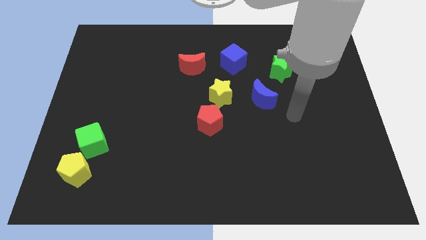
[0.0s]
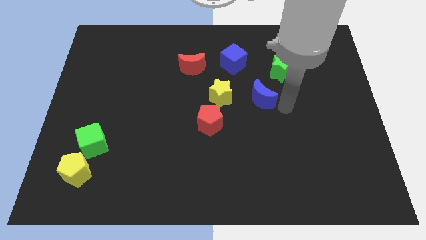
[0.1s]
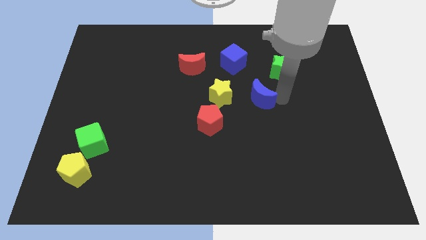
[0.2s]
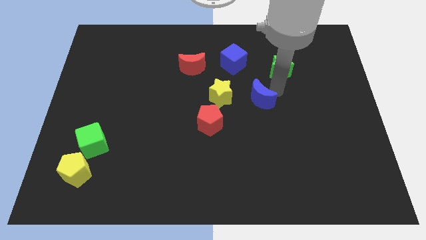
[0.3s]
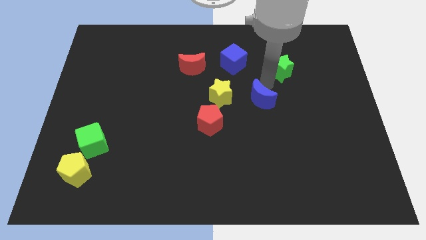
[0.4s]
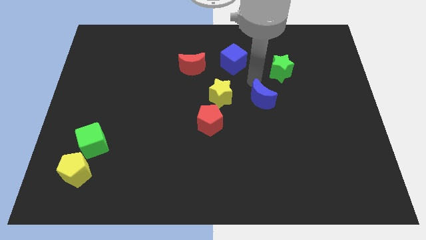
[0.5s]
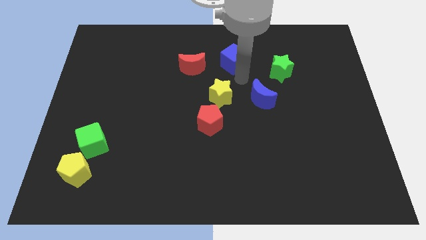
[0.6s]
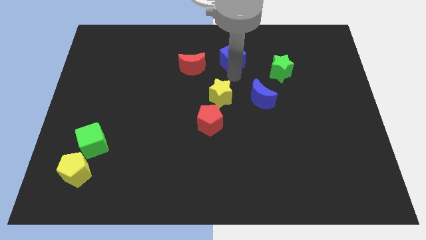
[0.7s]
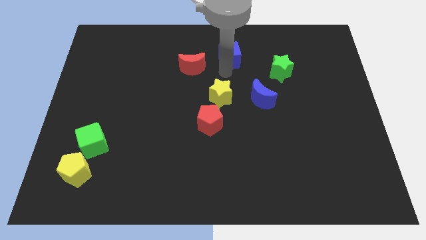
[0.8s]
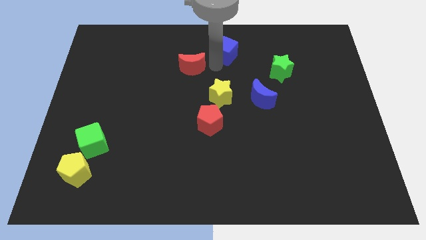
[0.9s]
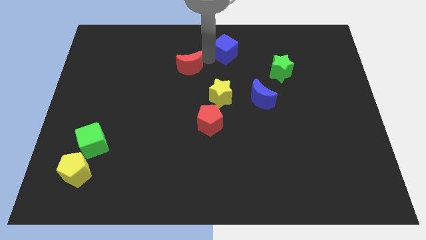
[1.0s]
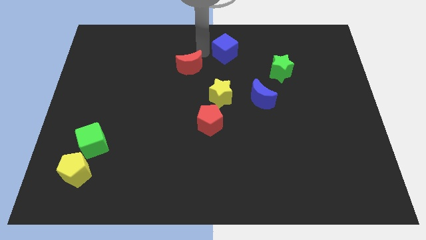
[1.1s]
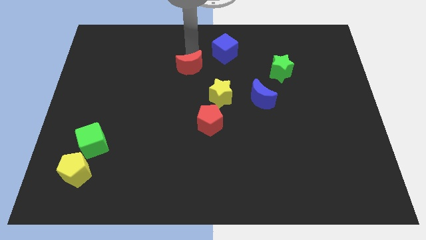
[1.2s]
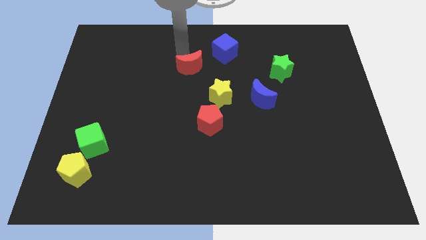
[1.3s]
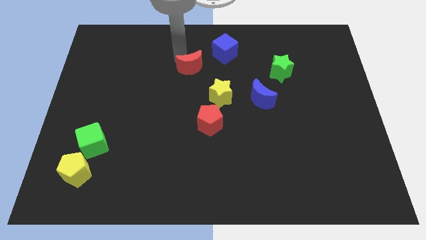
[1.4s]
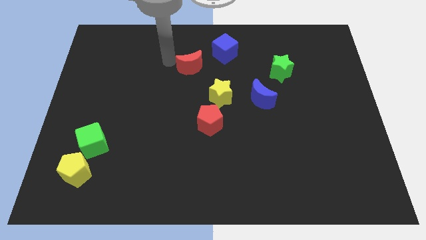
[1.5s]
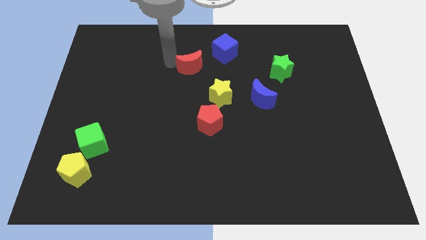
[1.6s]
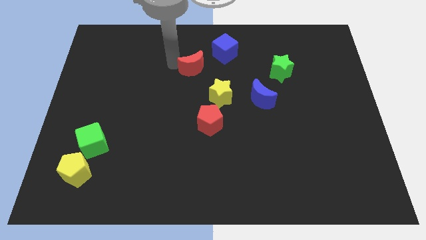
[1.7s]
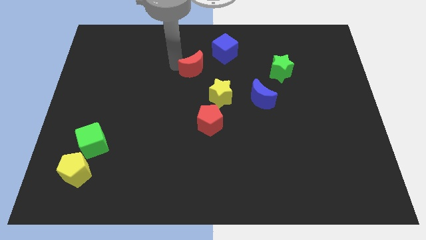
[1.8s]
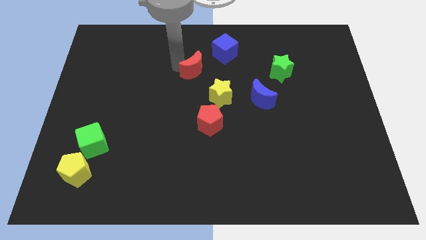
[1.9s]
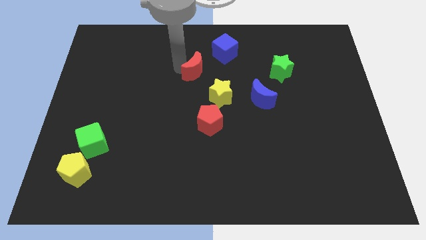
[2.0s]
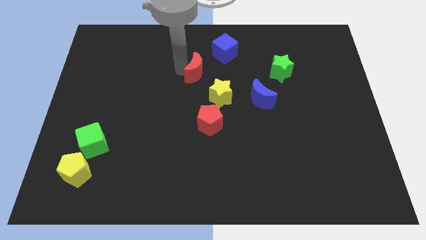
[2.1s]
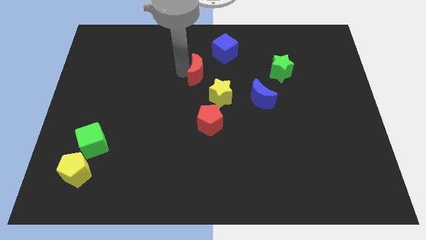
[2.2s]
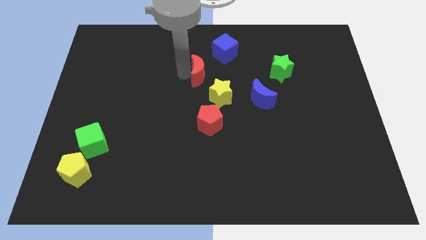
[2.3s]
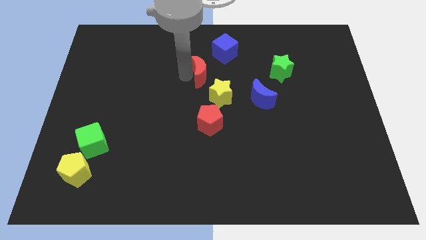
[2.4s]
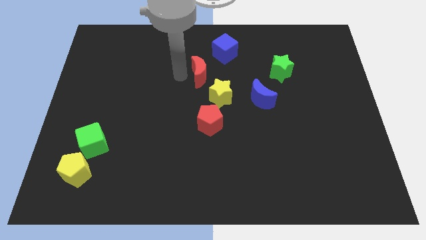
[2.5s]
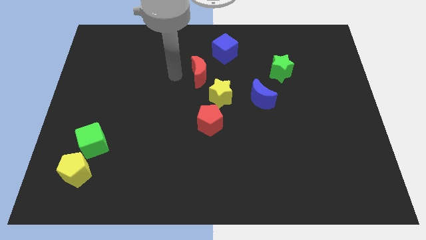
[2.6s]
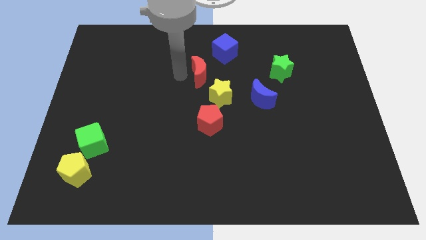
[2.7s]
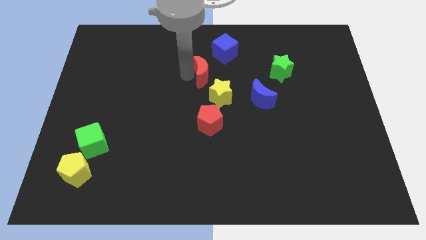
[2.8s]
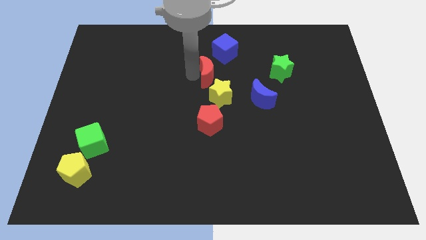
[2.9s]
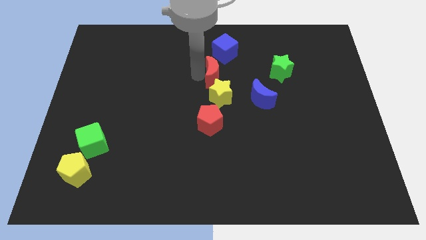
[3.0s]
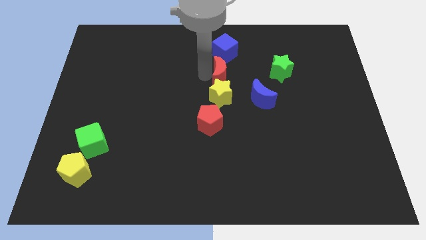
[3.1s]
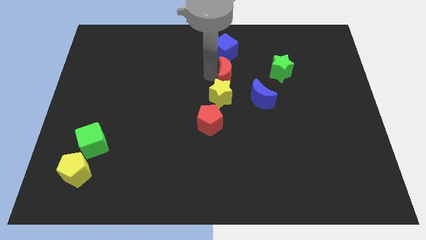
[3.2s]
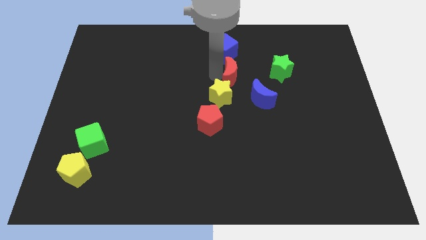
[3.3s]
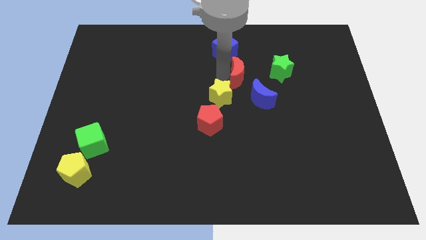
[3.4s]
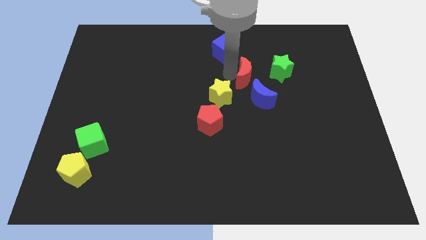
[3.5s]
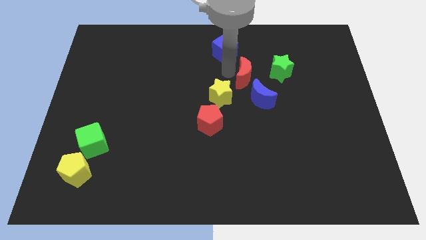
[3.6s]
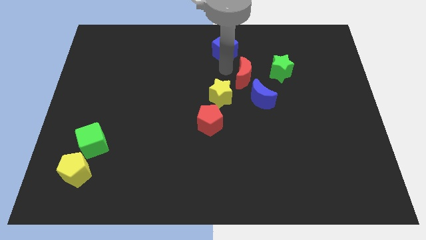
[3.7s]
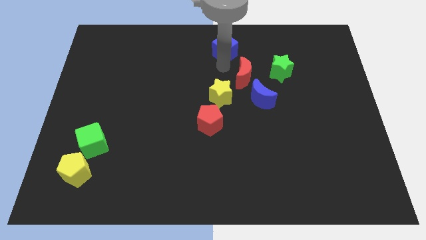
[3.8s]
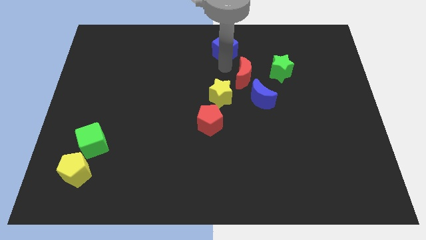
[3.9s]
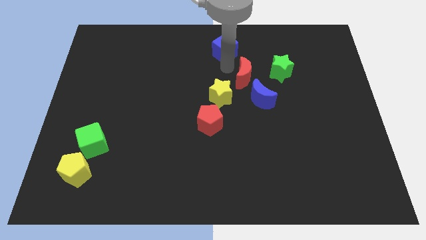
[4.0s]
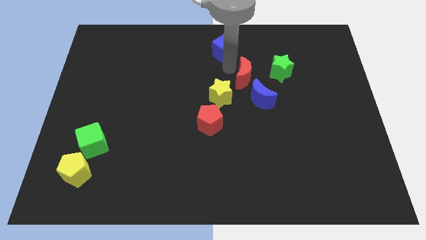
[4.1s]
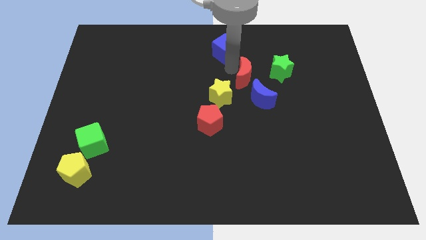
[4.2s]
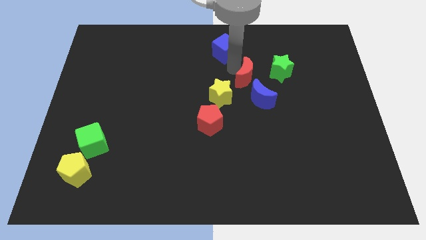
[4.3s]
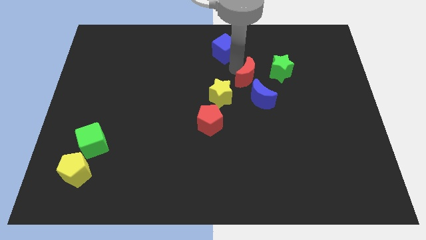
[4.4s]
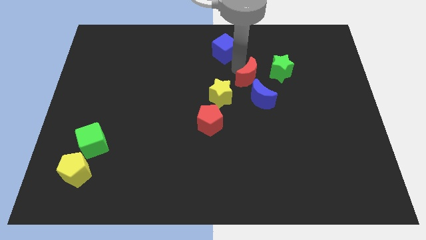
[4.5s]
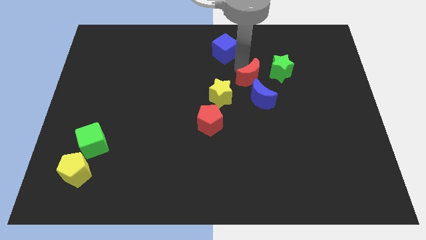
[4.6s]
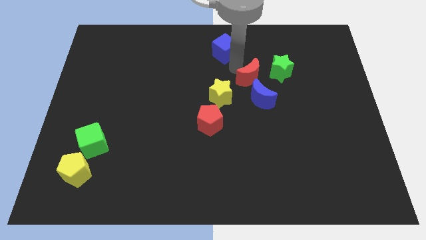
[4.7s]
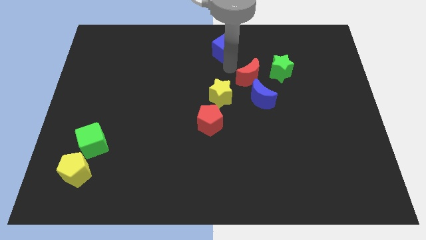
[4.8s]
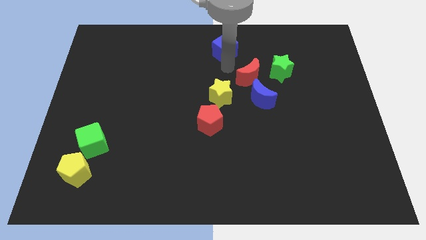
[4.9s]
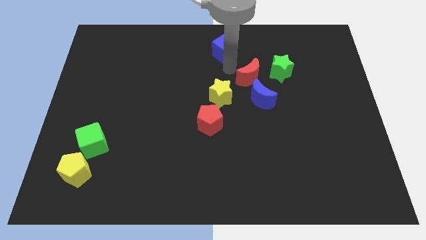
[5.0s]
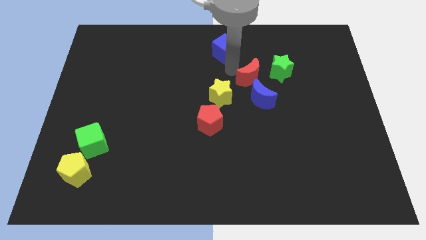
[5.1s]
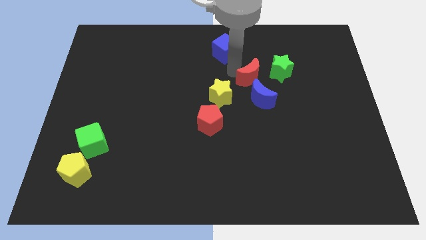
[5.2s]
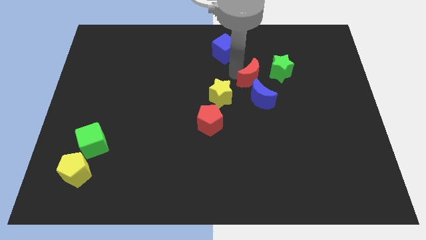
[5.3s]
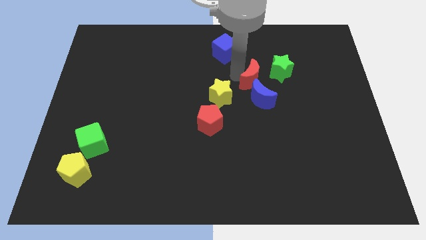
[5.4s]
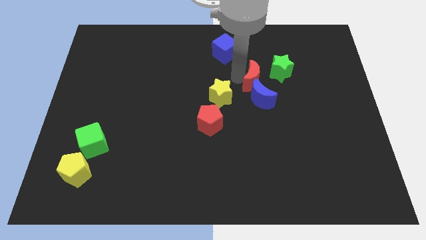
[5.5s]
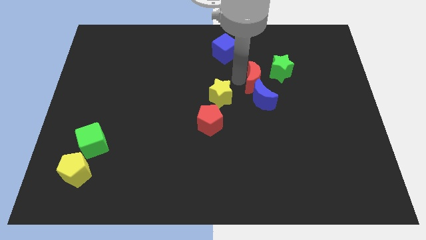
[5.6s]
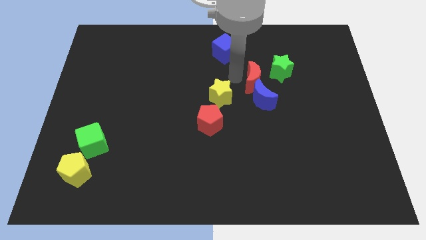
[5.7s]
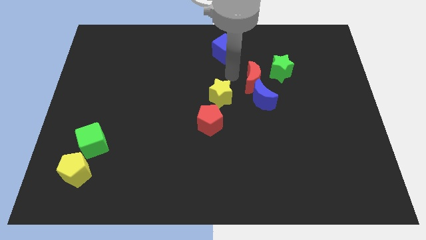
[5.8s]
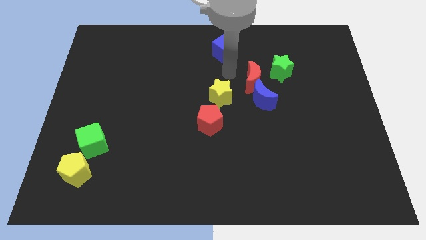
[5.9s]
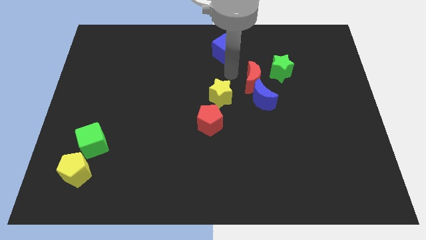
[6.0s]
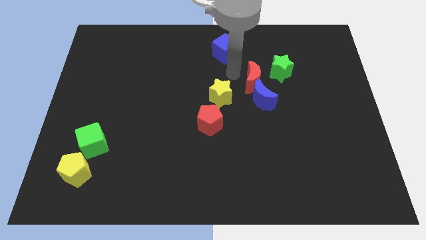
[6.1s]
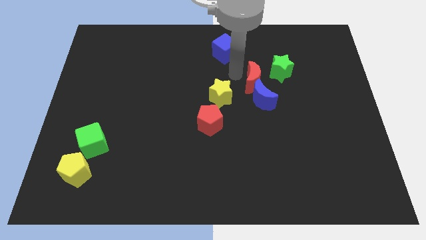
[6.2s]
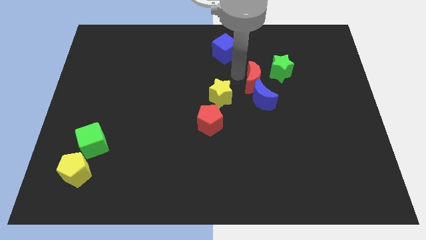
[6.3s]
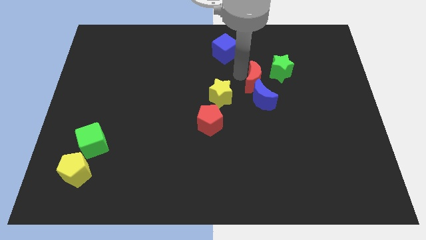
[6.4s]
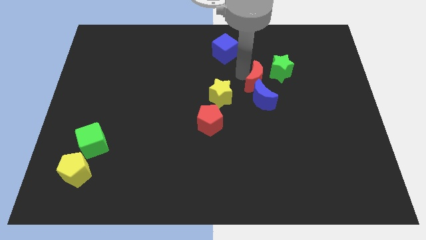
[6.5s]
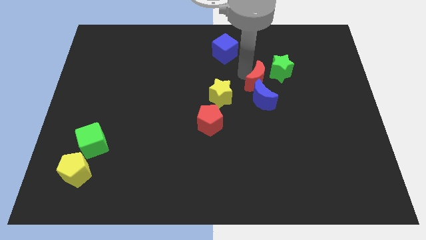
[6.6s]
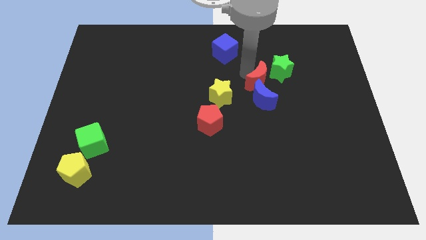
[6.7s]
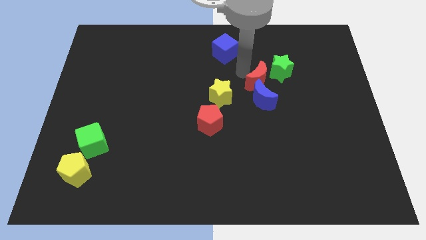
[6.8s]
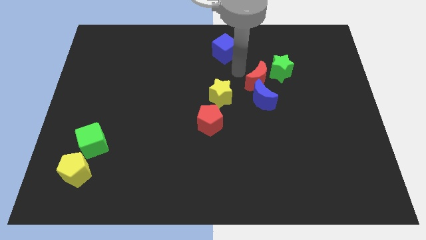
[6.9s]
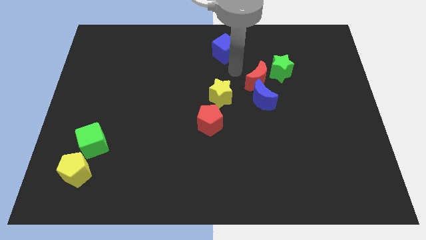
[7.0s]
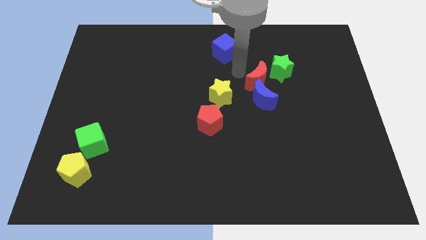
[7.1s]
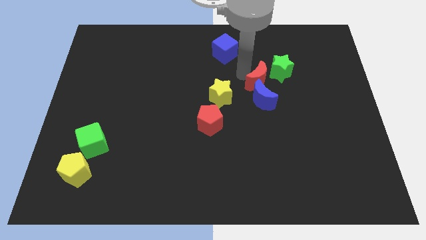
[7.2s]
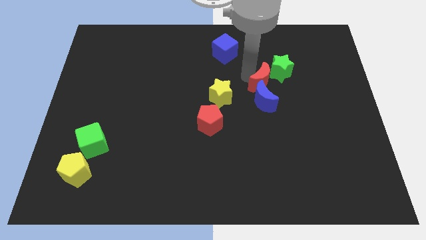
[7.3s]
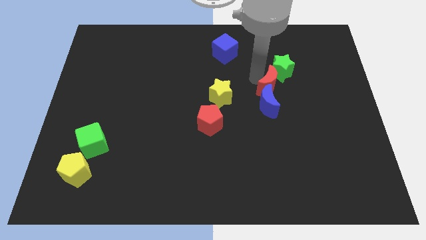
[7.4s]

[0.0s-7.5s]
move the red moon to the bottom of the green star
